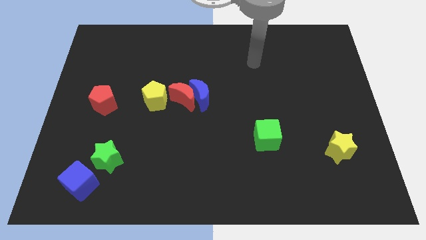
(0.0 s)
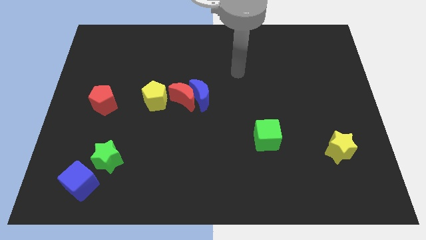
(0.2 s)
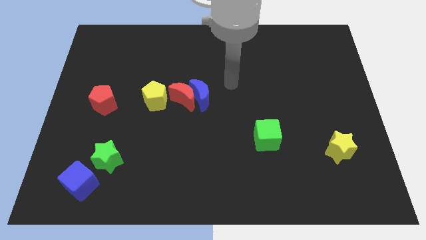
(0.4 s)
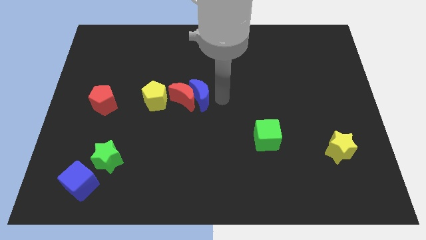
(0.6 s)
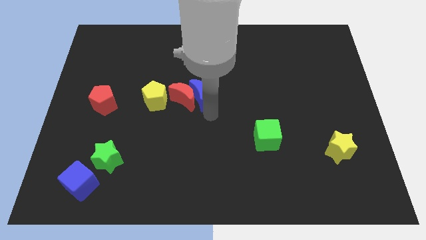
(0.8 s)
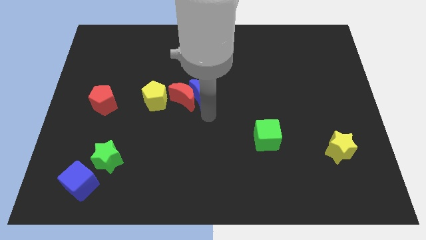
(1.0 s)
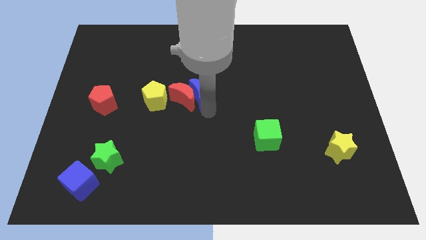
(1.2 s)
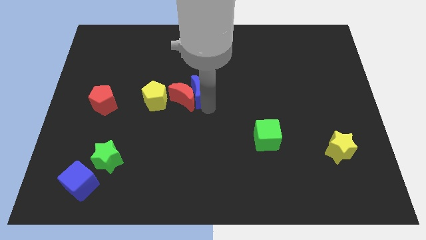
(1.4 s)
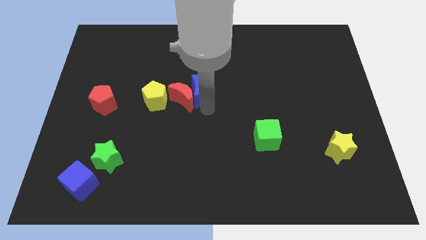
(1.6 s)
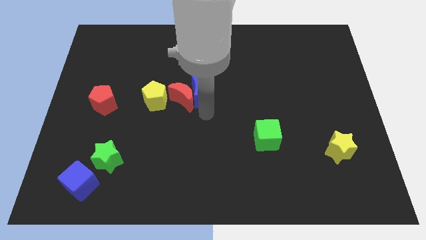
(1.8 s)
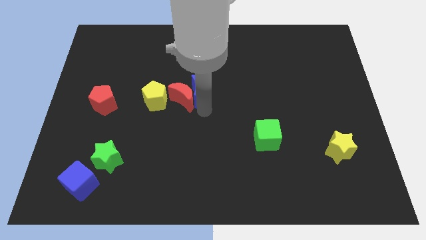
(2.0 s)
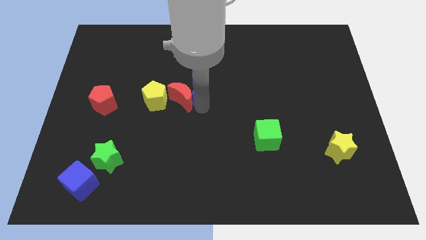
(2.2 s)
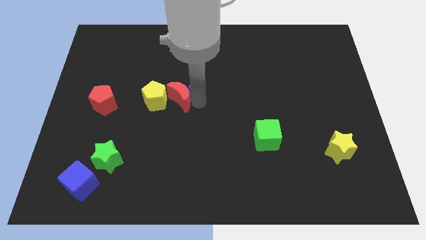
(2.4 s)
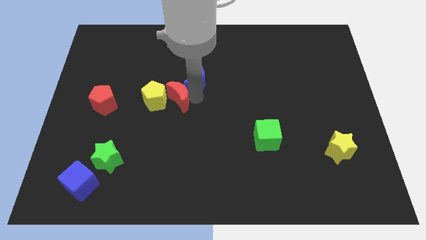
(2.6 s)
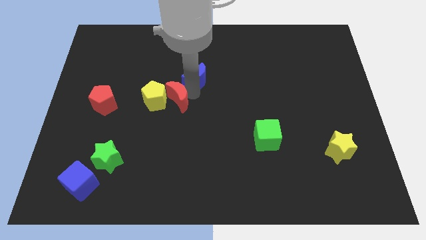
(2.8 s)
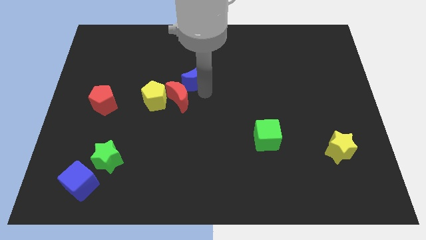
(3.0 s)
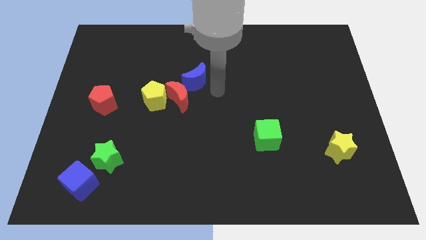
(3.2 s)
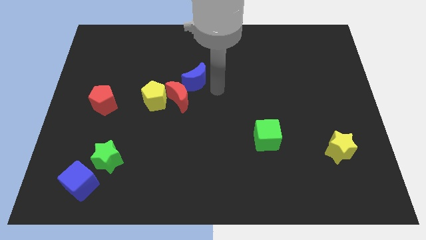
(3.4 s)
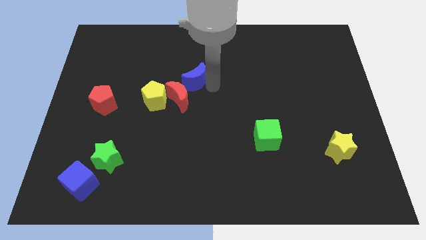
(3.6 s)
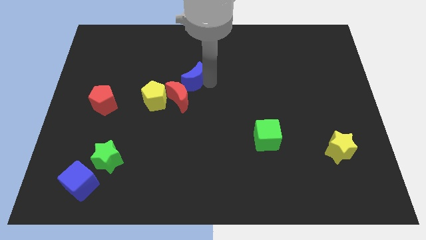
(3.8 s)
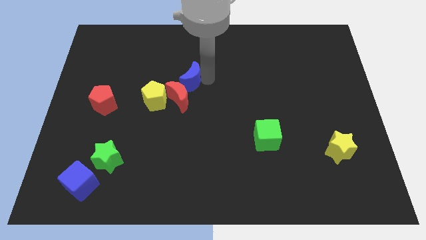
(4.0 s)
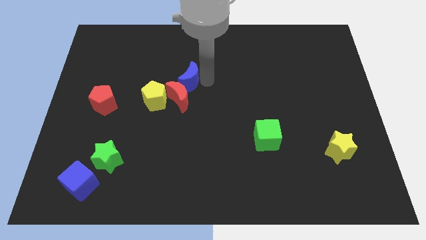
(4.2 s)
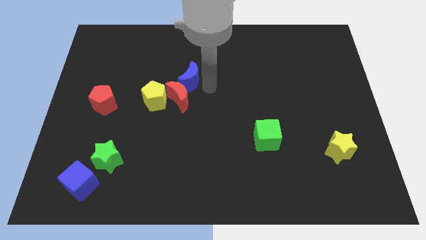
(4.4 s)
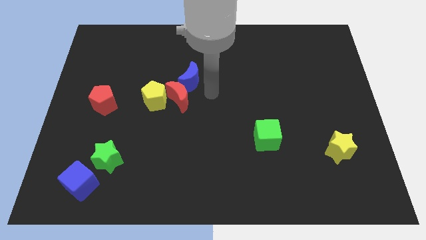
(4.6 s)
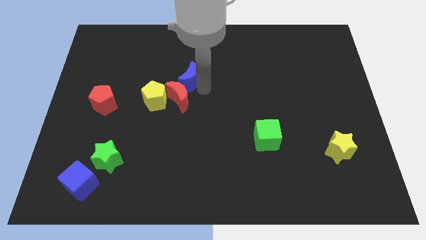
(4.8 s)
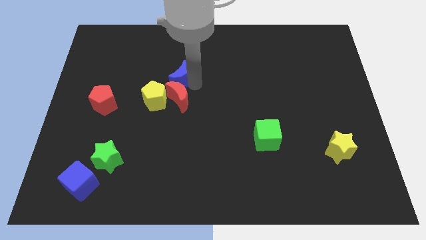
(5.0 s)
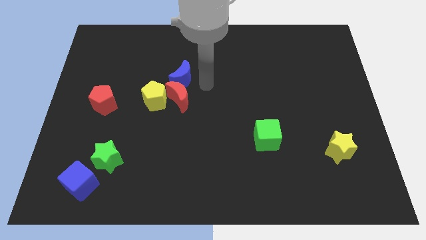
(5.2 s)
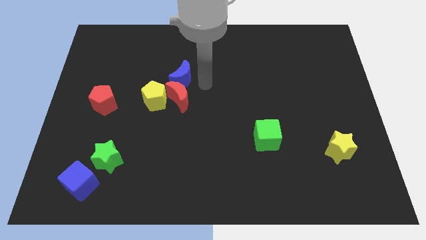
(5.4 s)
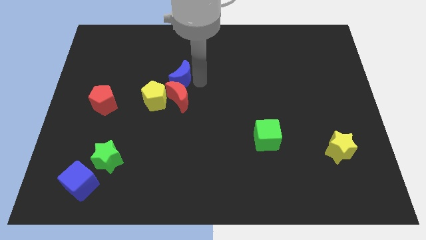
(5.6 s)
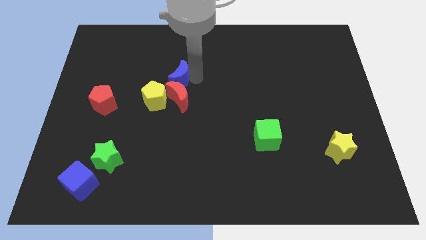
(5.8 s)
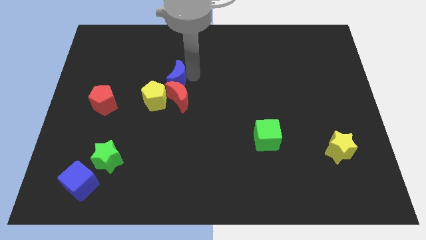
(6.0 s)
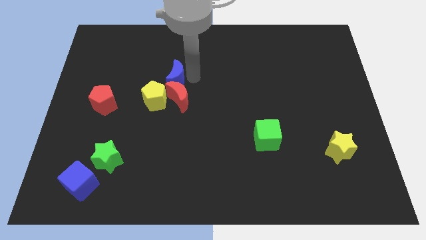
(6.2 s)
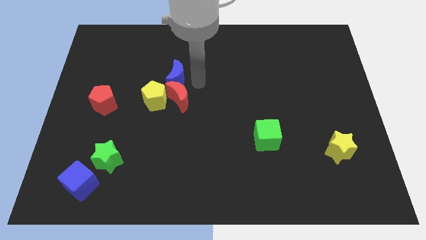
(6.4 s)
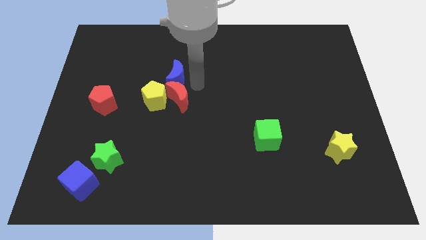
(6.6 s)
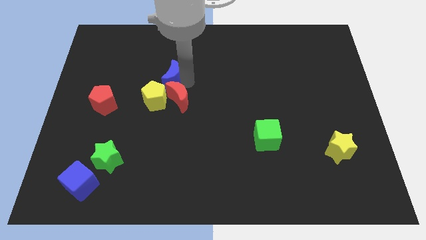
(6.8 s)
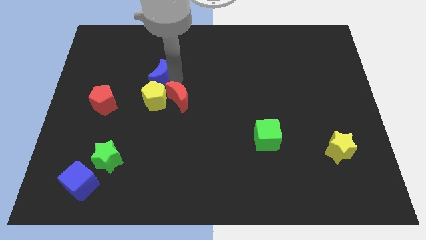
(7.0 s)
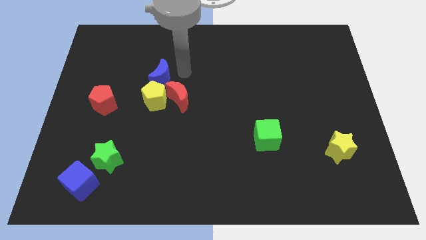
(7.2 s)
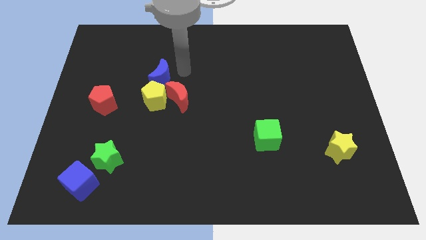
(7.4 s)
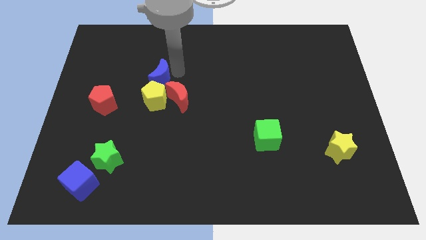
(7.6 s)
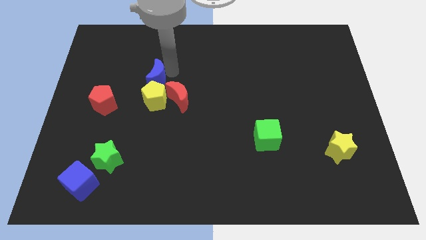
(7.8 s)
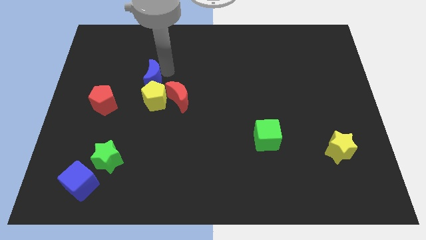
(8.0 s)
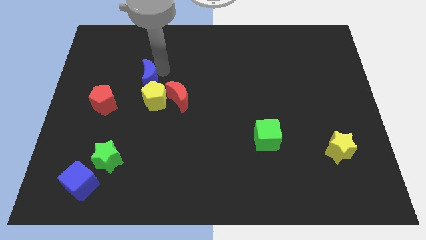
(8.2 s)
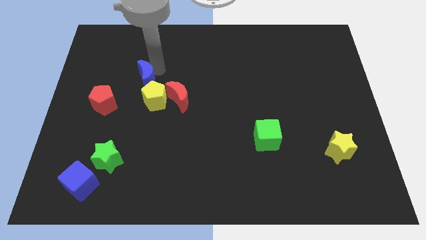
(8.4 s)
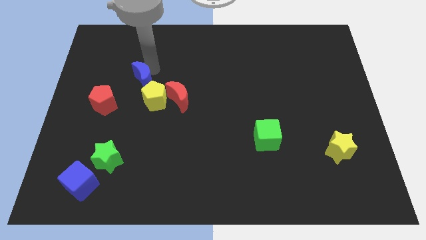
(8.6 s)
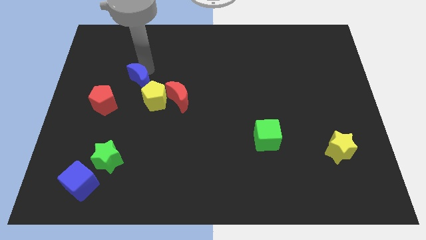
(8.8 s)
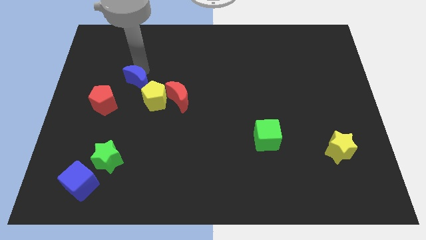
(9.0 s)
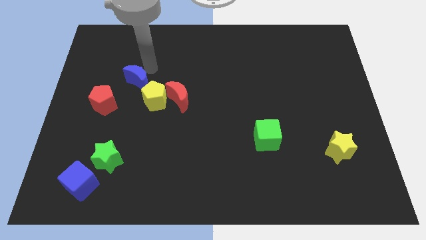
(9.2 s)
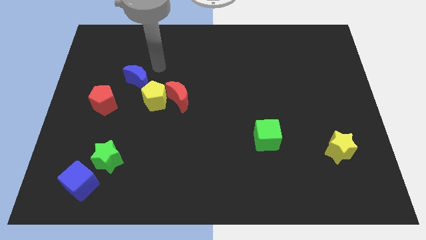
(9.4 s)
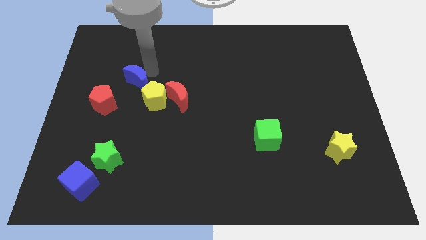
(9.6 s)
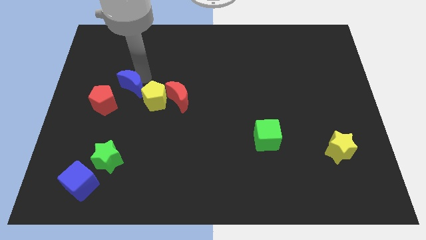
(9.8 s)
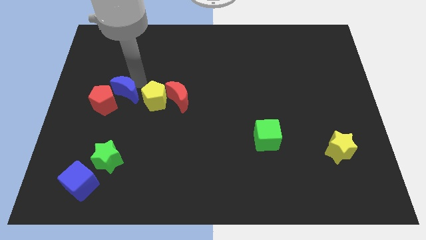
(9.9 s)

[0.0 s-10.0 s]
slide the blue moon towards the red pentagon

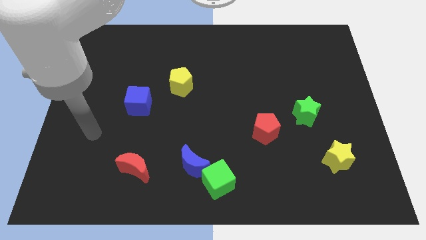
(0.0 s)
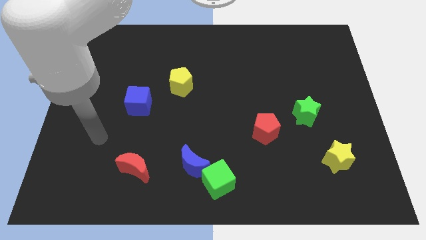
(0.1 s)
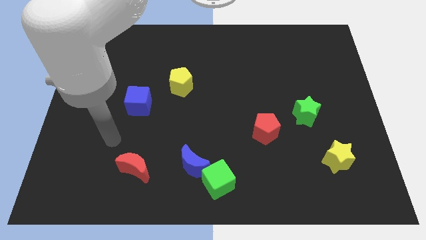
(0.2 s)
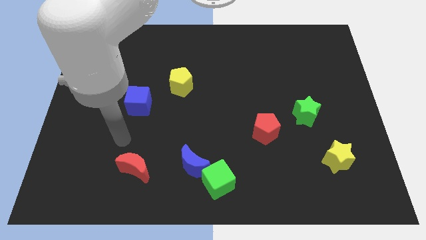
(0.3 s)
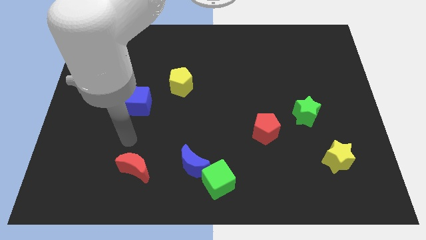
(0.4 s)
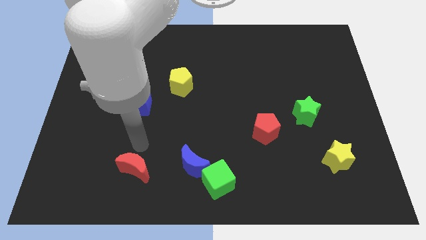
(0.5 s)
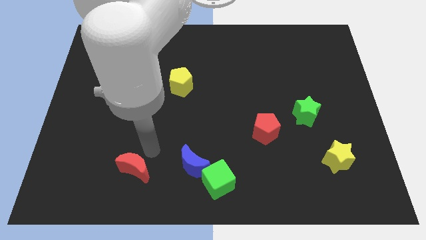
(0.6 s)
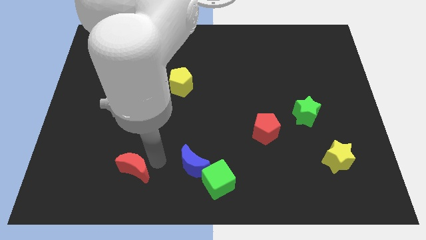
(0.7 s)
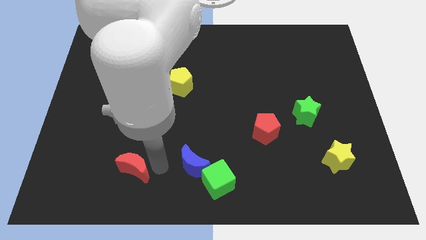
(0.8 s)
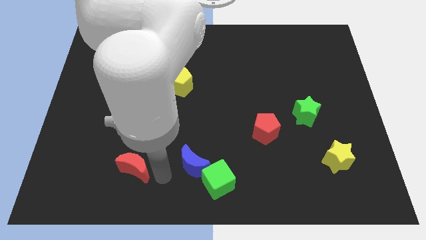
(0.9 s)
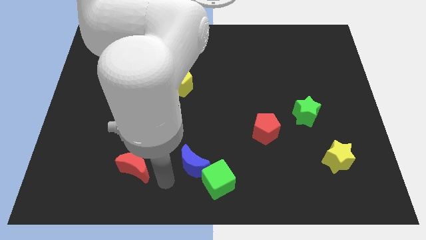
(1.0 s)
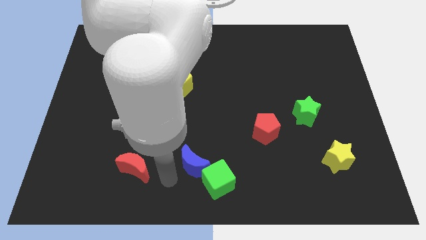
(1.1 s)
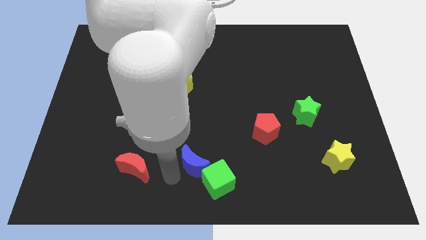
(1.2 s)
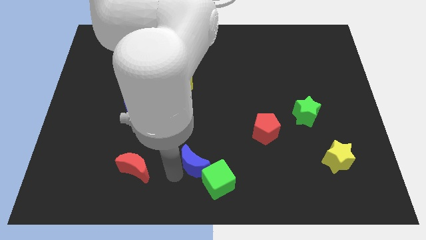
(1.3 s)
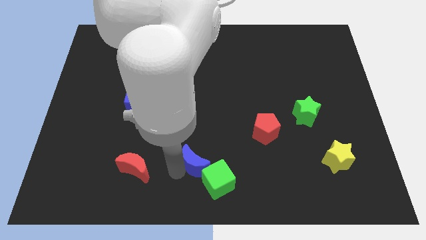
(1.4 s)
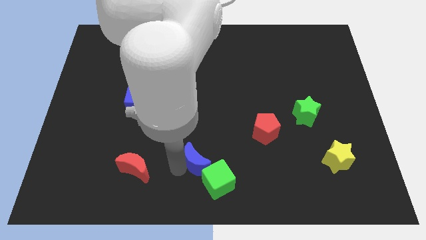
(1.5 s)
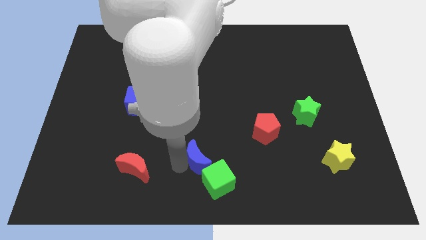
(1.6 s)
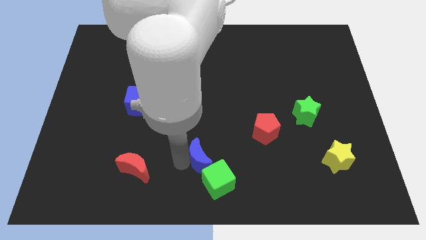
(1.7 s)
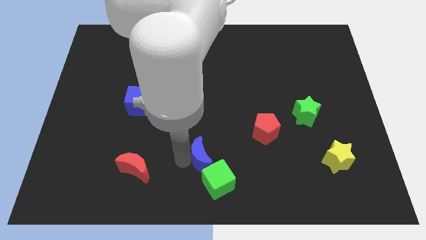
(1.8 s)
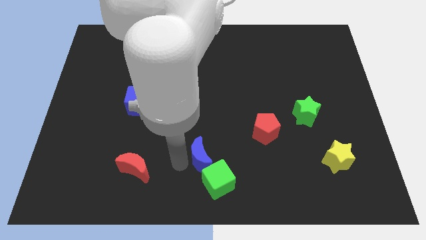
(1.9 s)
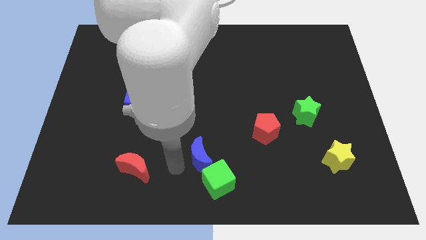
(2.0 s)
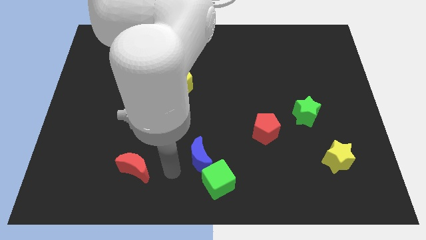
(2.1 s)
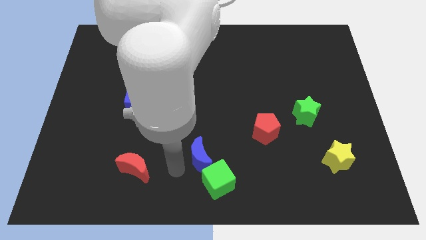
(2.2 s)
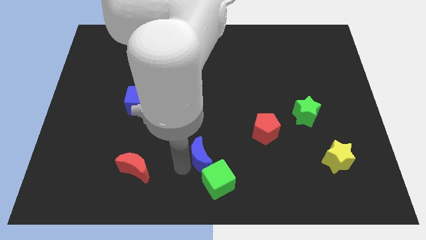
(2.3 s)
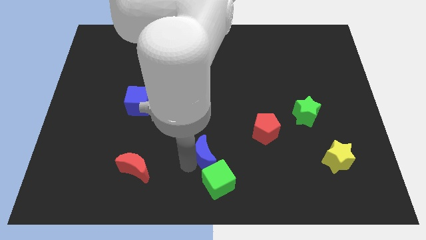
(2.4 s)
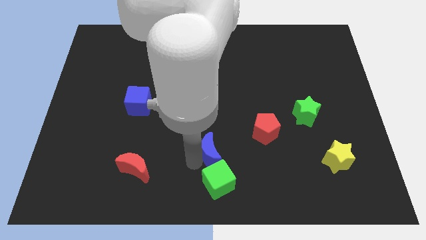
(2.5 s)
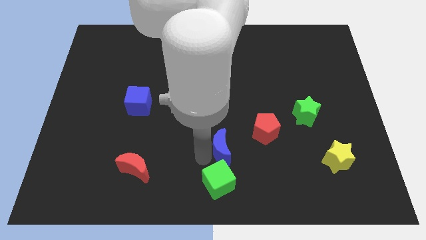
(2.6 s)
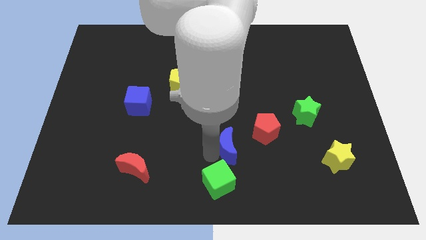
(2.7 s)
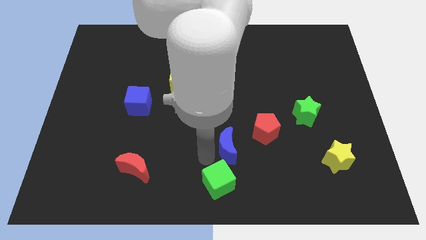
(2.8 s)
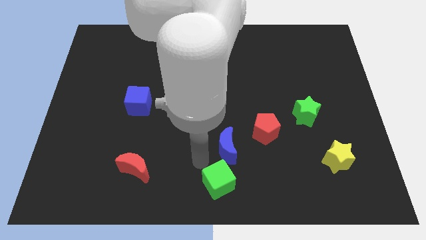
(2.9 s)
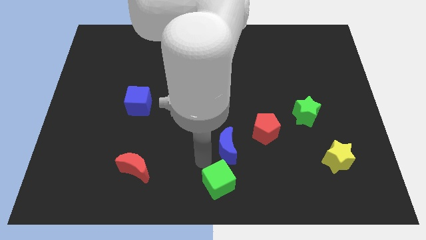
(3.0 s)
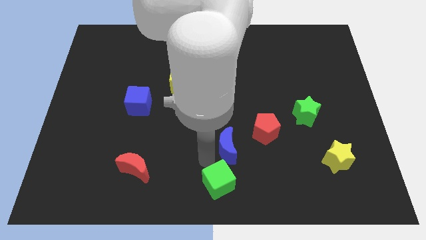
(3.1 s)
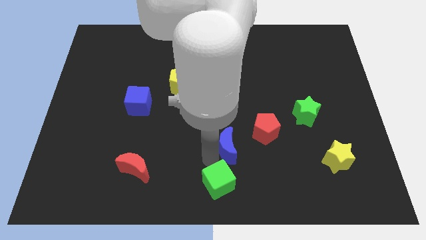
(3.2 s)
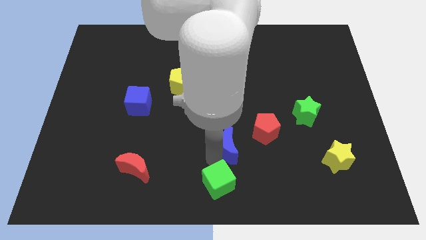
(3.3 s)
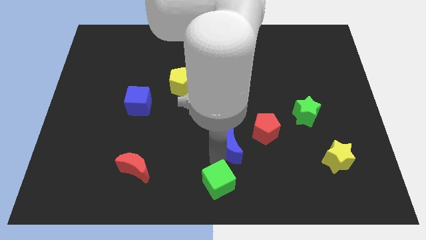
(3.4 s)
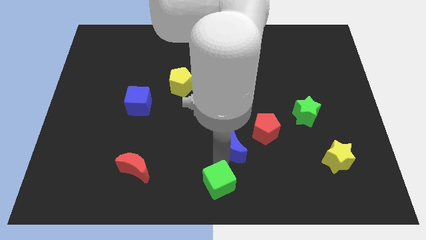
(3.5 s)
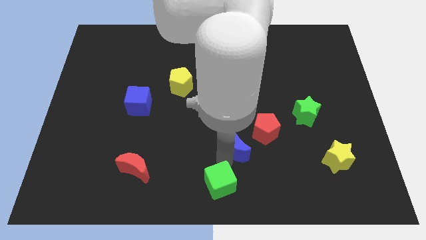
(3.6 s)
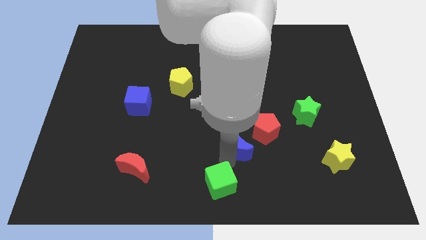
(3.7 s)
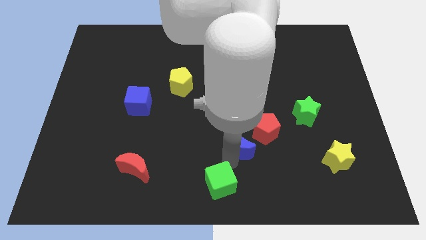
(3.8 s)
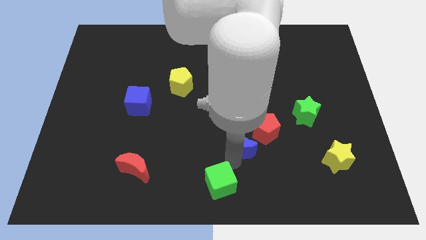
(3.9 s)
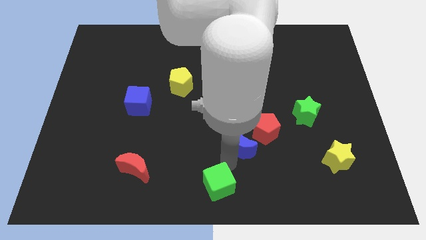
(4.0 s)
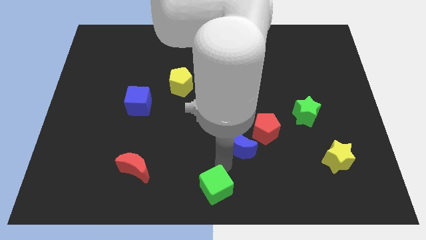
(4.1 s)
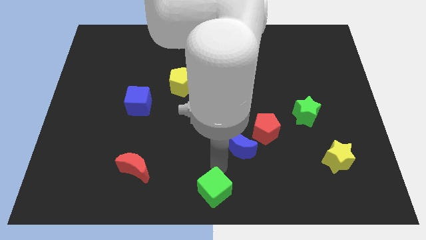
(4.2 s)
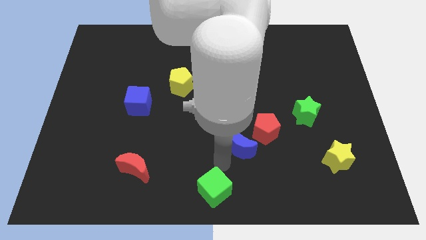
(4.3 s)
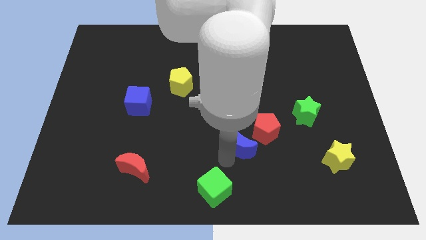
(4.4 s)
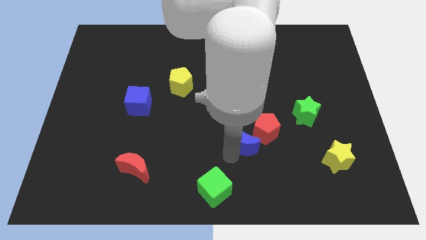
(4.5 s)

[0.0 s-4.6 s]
push the blue moon to the red pentagon
